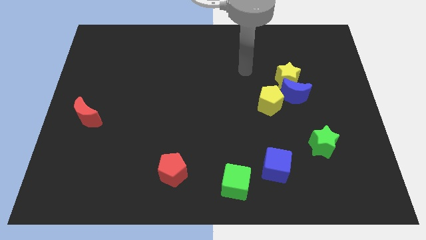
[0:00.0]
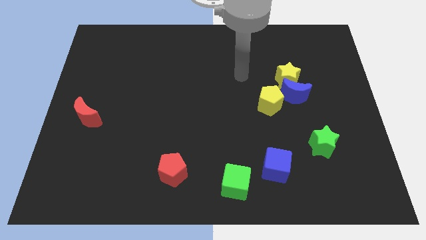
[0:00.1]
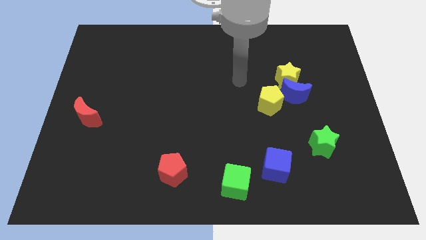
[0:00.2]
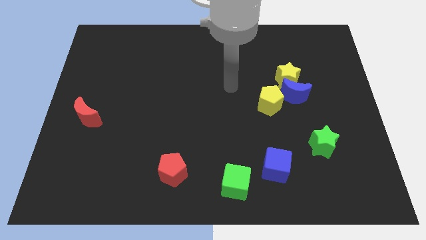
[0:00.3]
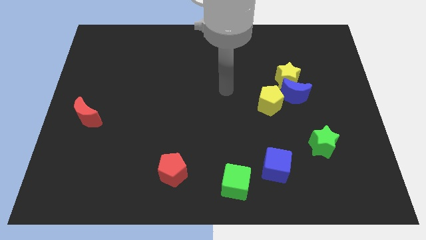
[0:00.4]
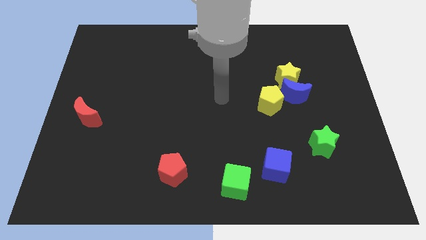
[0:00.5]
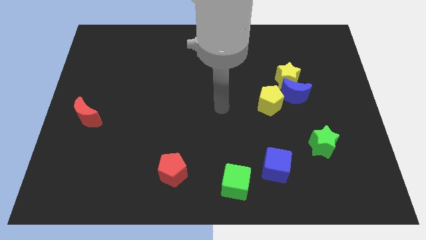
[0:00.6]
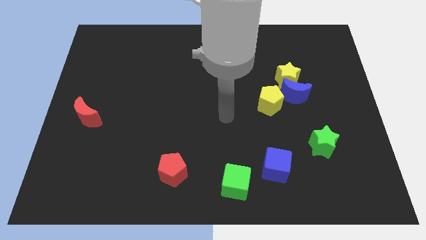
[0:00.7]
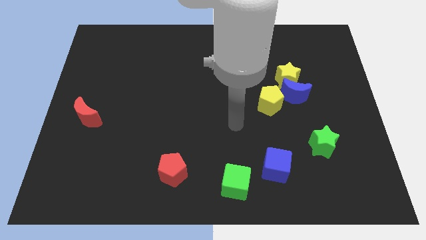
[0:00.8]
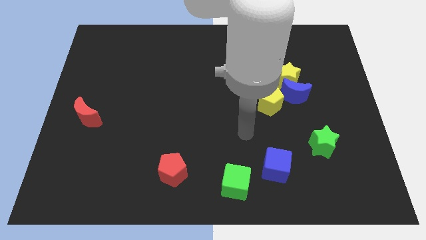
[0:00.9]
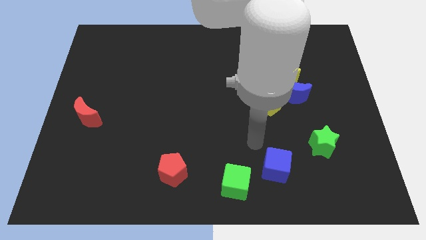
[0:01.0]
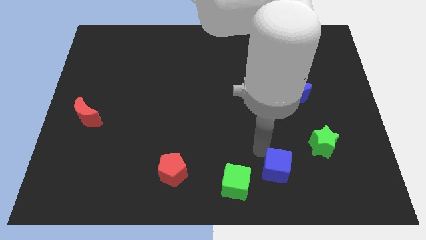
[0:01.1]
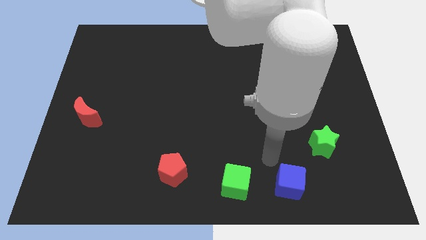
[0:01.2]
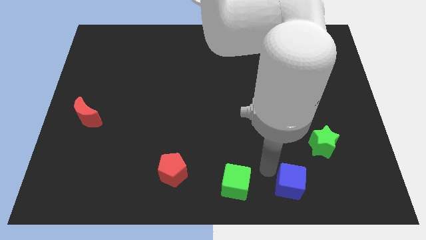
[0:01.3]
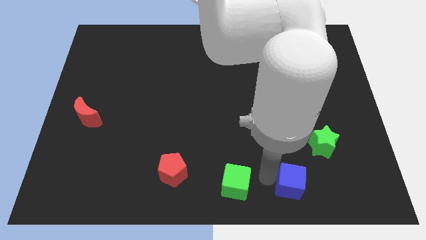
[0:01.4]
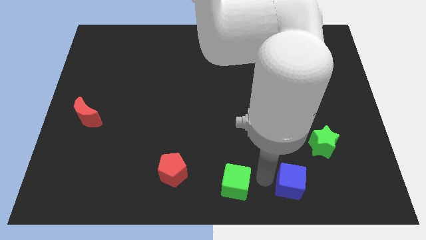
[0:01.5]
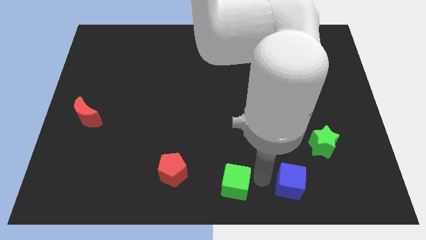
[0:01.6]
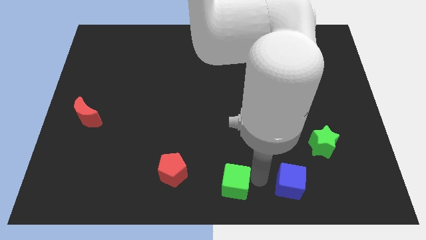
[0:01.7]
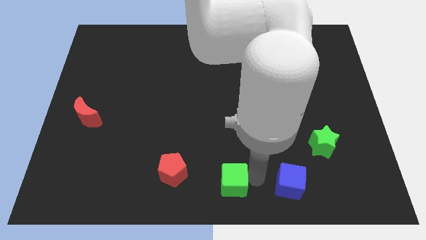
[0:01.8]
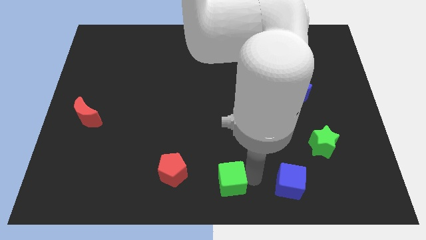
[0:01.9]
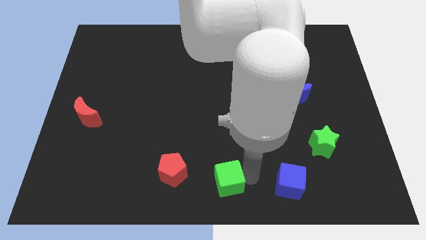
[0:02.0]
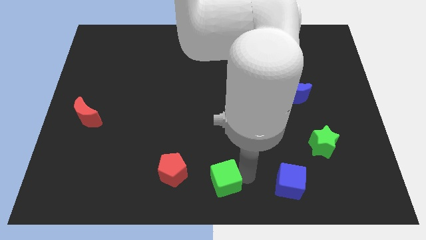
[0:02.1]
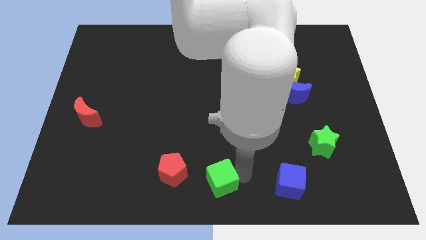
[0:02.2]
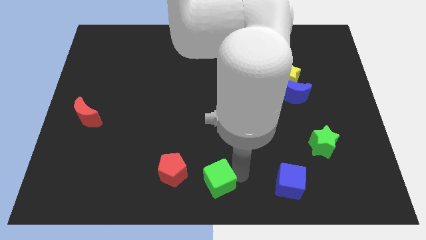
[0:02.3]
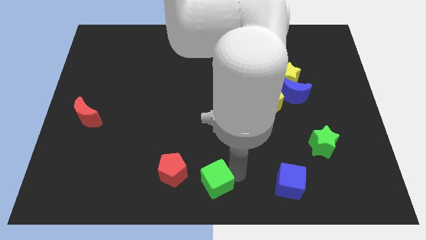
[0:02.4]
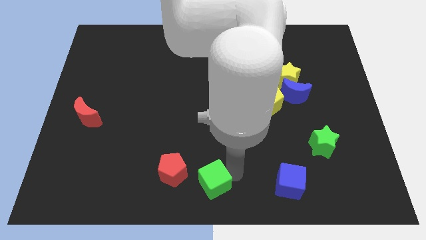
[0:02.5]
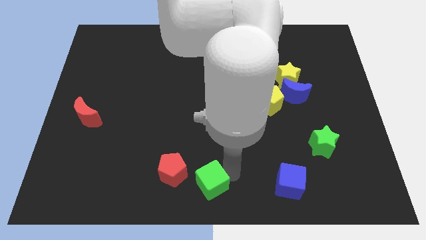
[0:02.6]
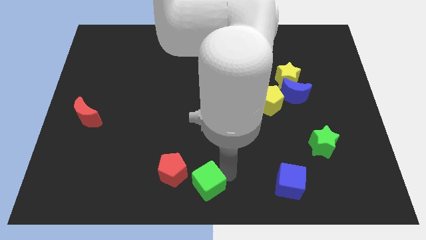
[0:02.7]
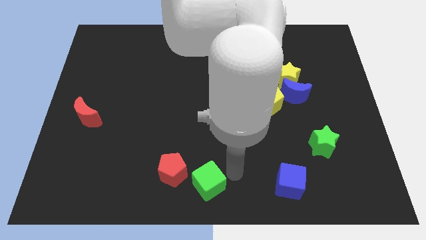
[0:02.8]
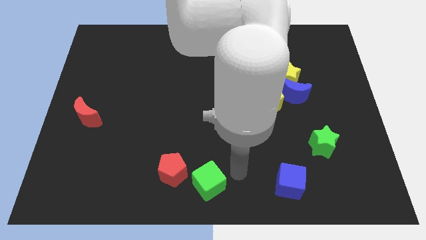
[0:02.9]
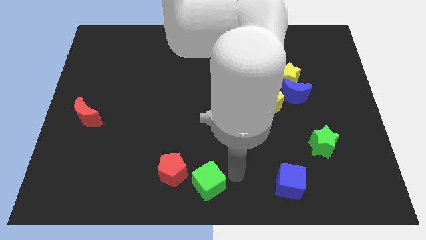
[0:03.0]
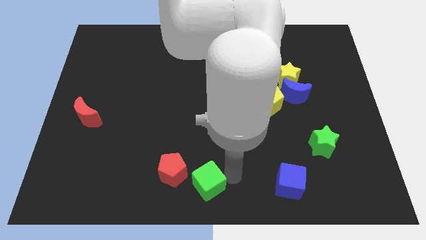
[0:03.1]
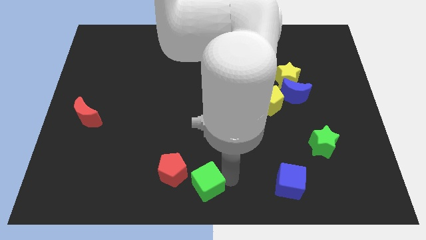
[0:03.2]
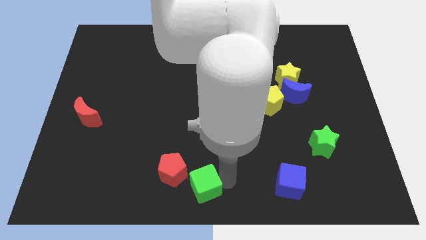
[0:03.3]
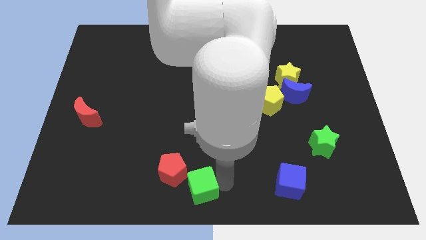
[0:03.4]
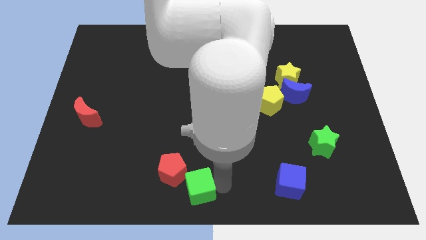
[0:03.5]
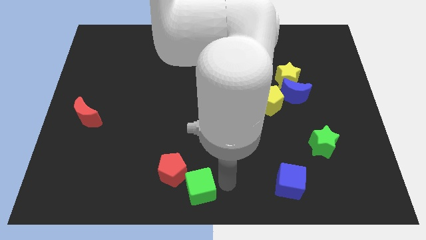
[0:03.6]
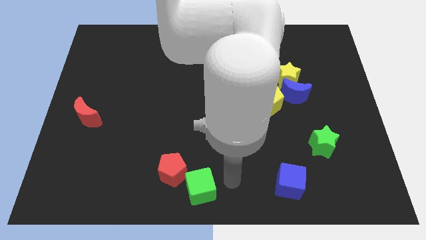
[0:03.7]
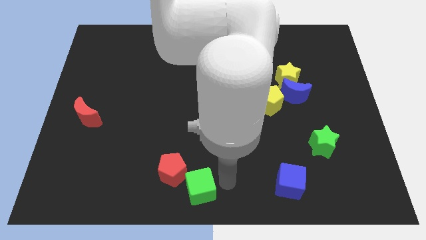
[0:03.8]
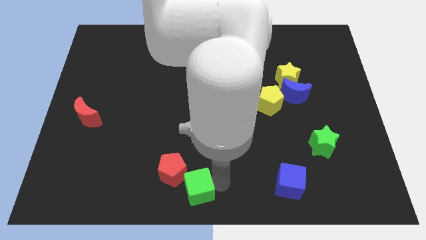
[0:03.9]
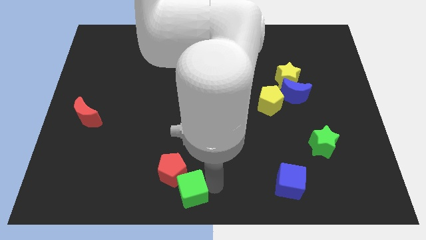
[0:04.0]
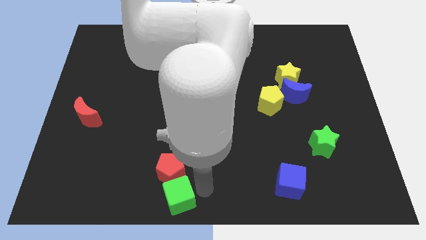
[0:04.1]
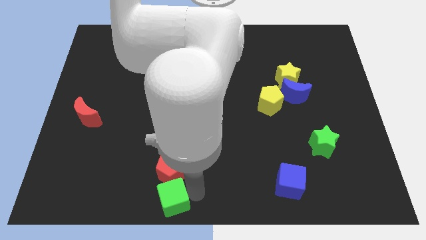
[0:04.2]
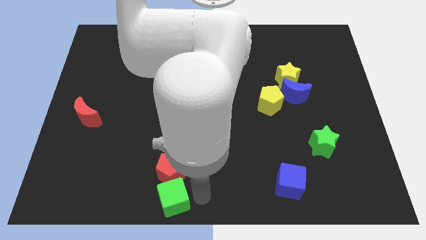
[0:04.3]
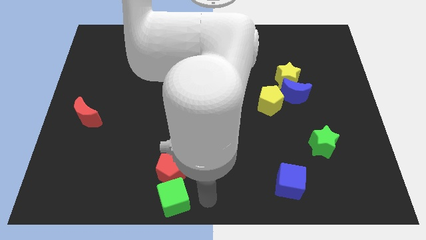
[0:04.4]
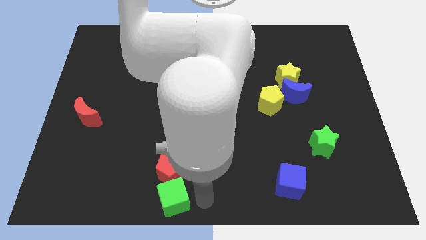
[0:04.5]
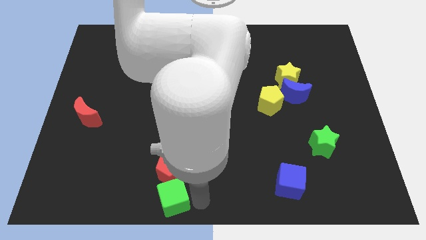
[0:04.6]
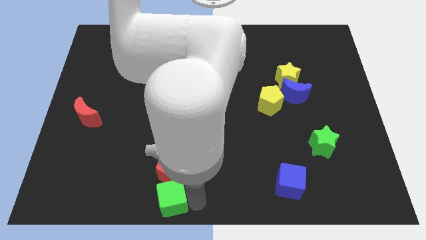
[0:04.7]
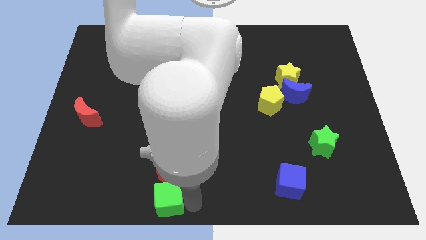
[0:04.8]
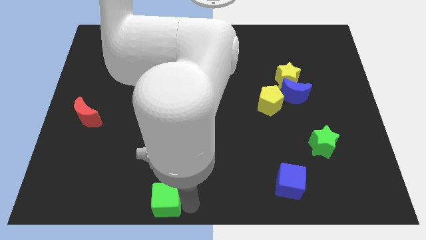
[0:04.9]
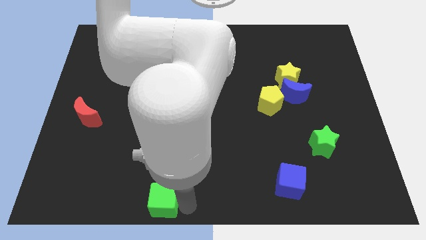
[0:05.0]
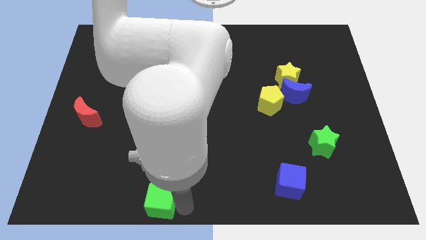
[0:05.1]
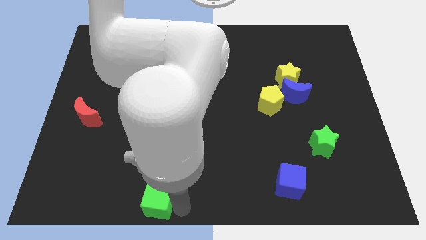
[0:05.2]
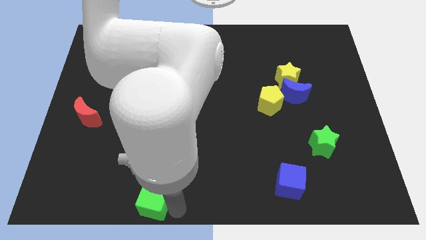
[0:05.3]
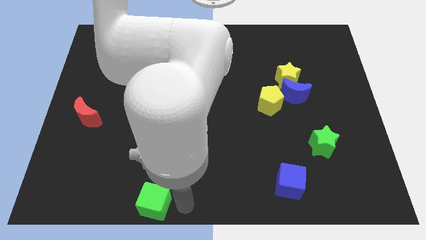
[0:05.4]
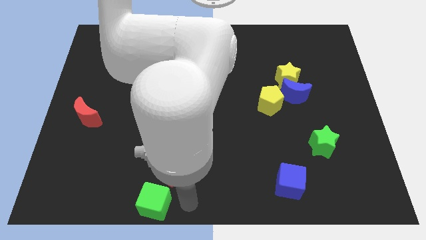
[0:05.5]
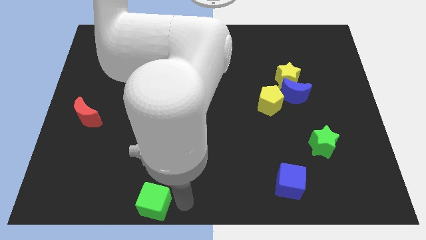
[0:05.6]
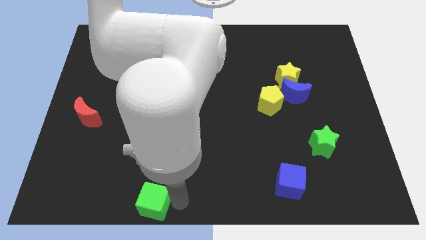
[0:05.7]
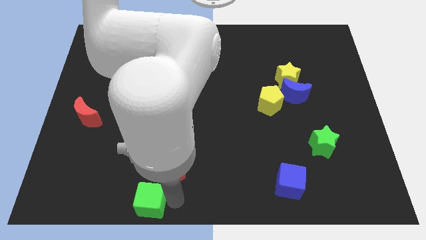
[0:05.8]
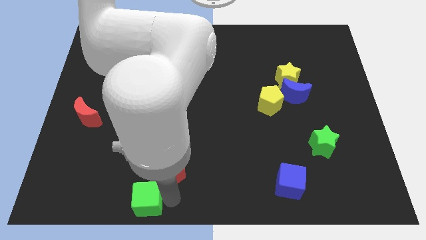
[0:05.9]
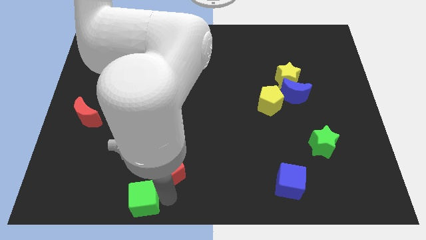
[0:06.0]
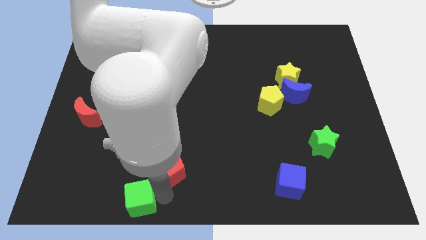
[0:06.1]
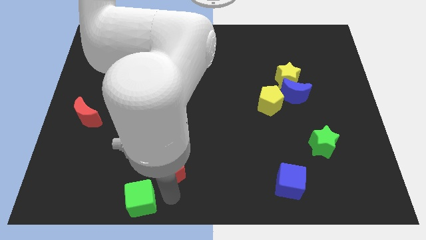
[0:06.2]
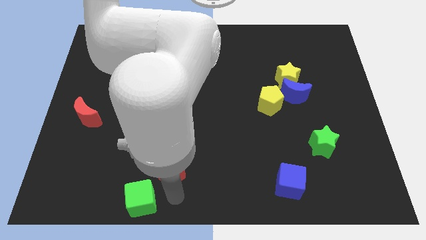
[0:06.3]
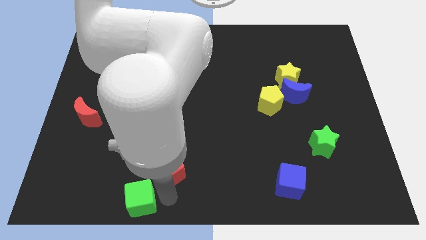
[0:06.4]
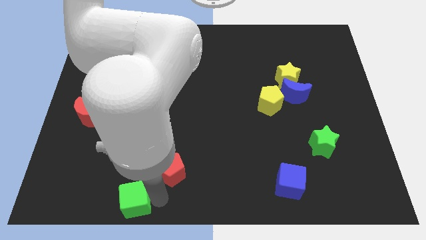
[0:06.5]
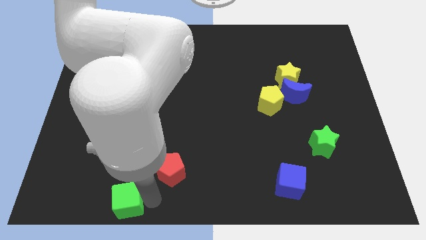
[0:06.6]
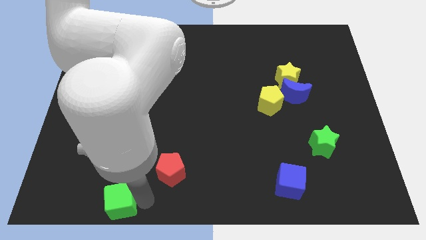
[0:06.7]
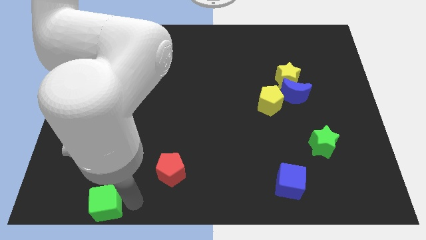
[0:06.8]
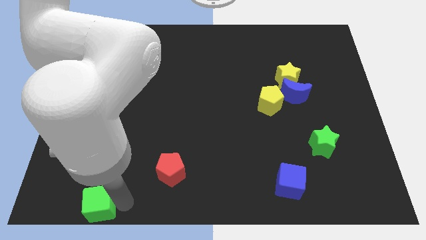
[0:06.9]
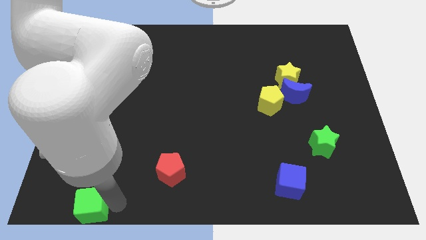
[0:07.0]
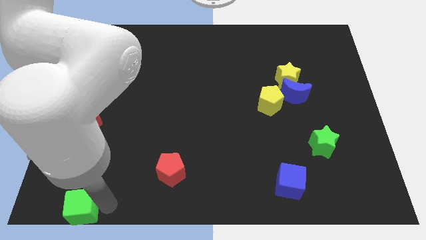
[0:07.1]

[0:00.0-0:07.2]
push the green cube to the bottom left corner
